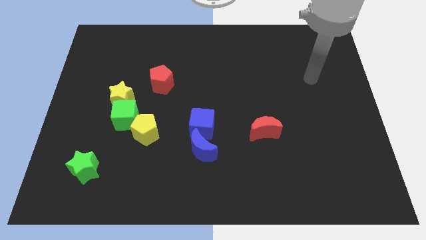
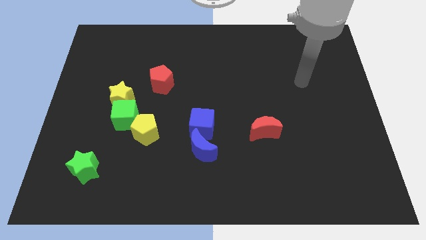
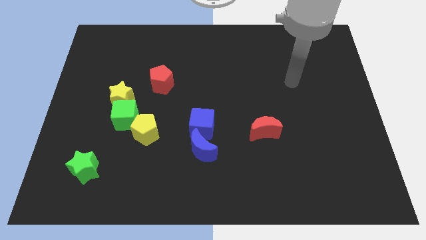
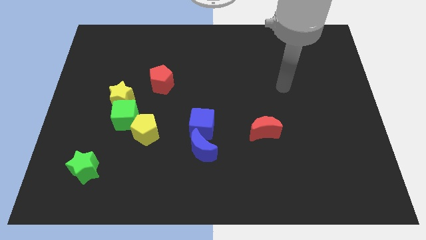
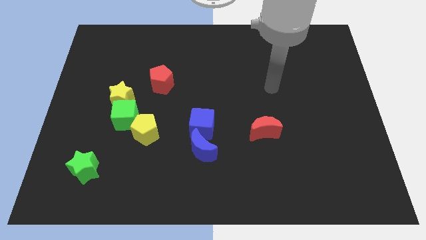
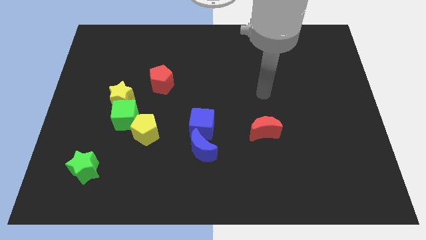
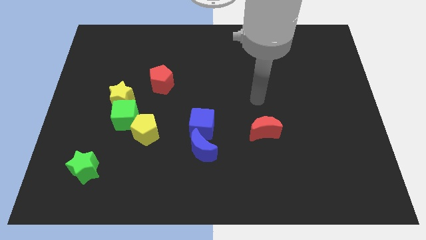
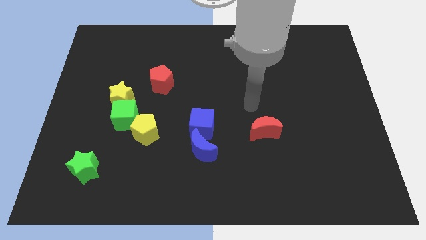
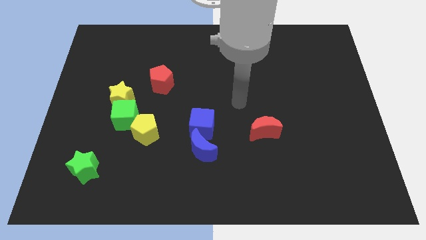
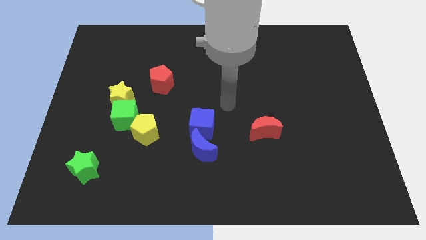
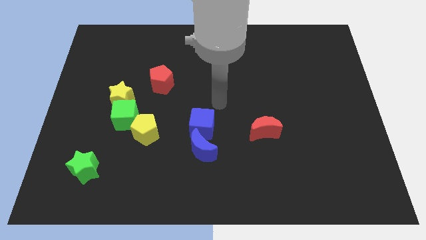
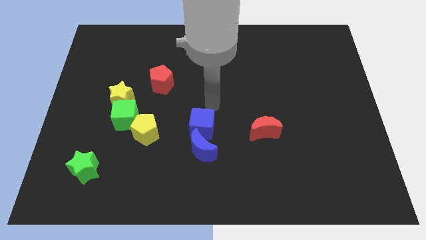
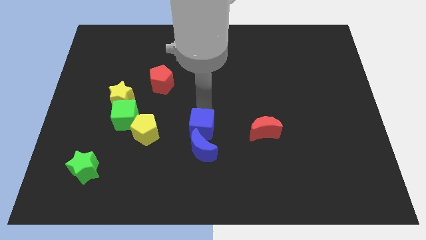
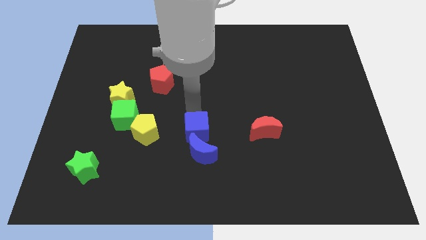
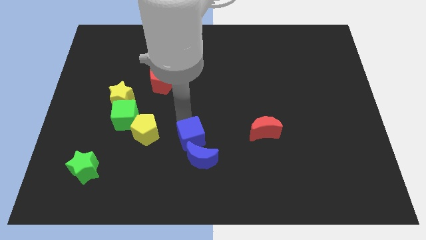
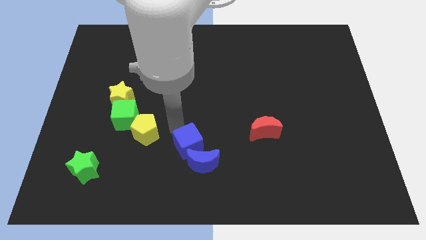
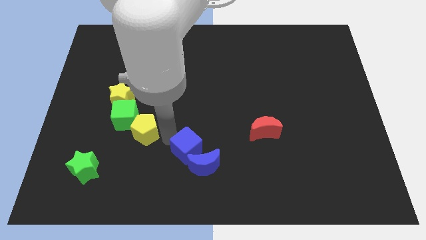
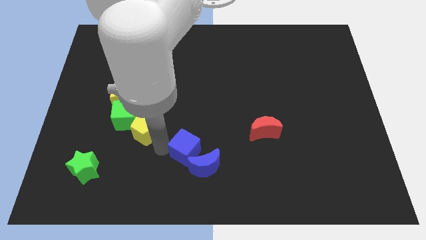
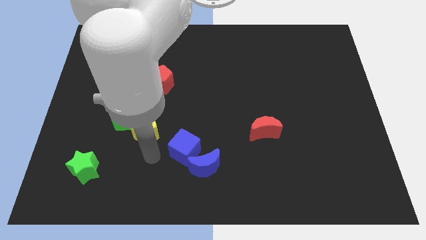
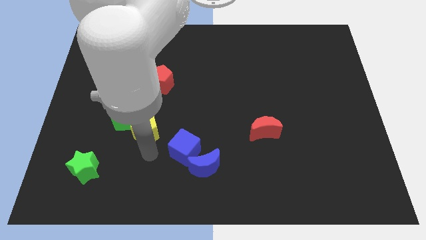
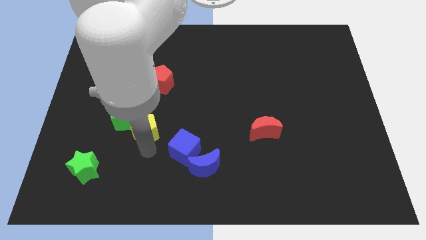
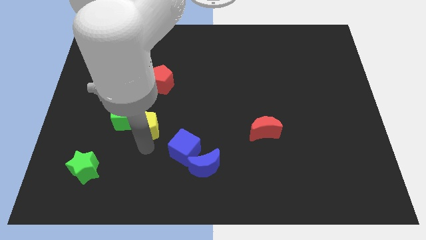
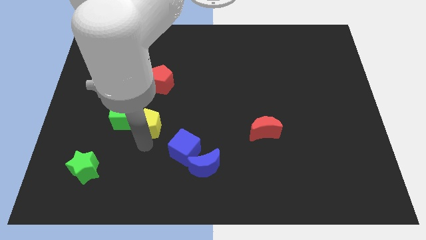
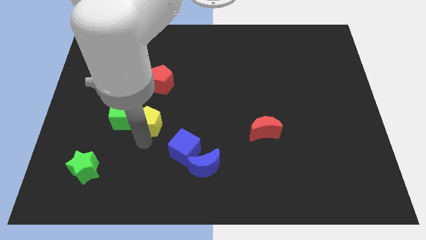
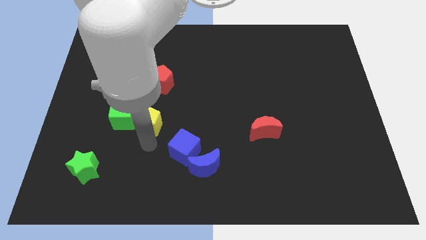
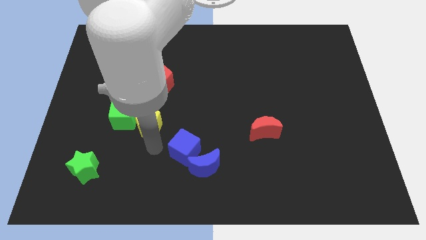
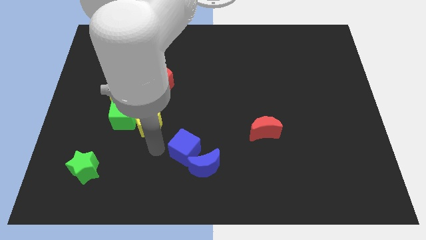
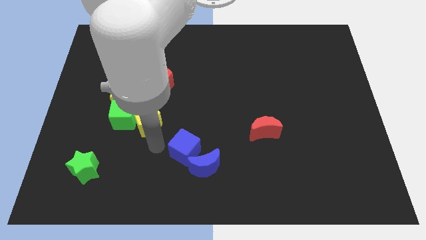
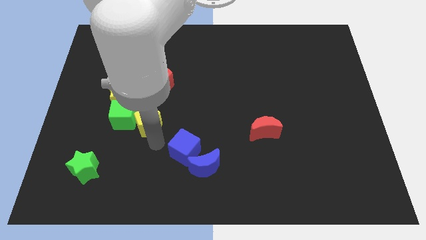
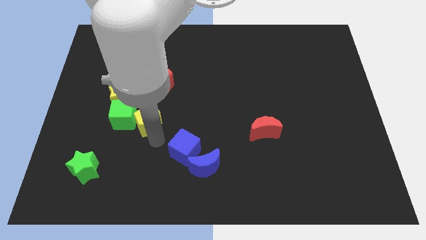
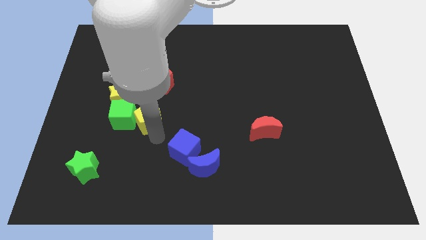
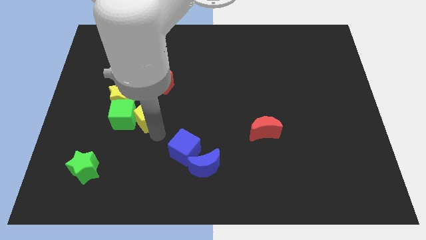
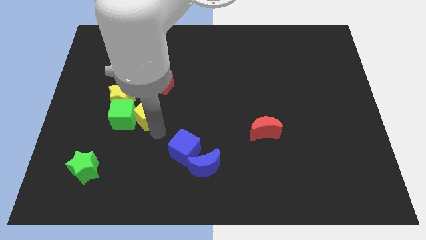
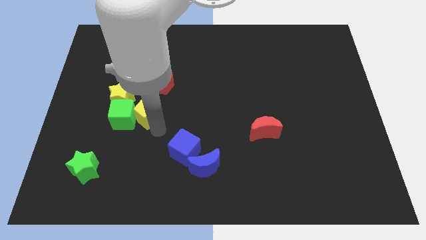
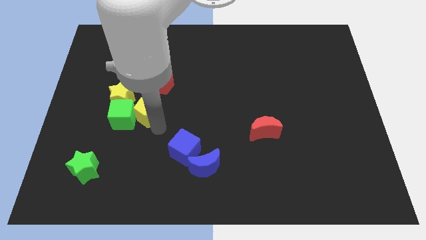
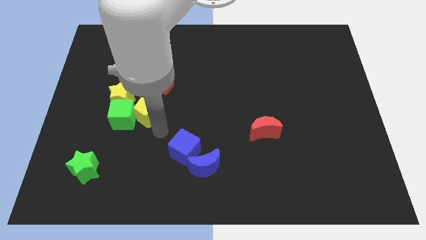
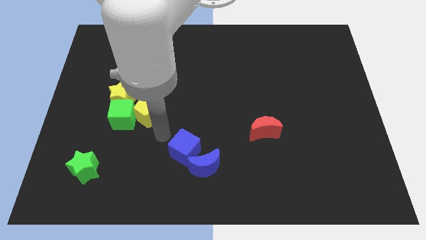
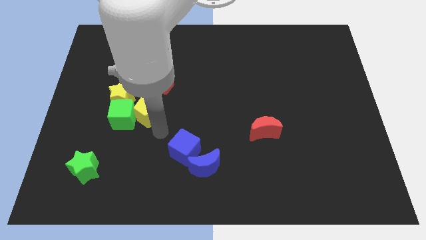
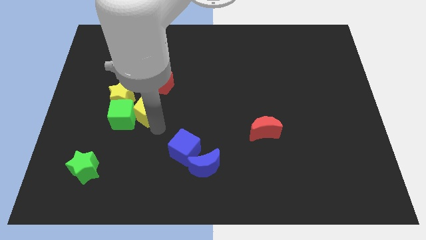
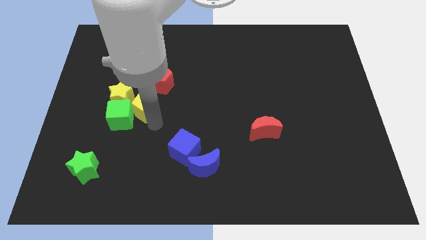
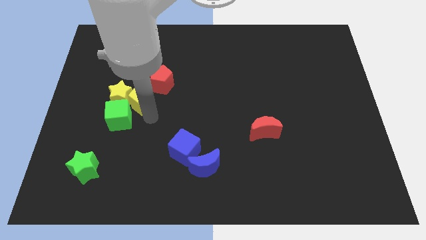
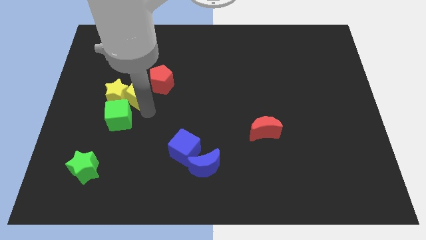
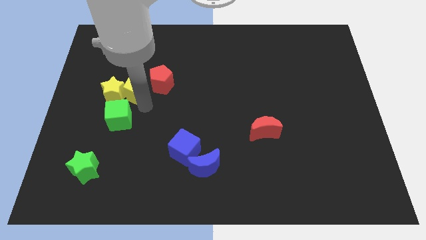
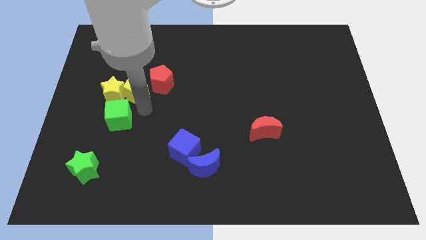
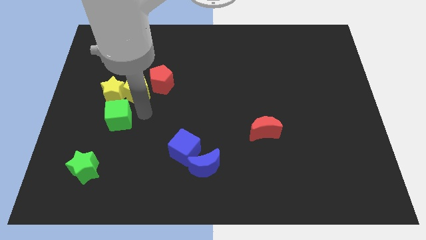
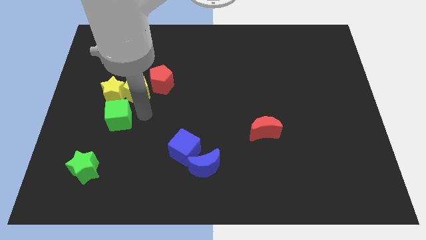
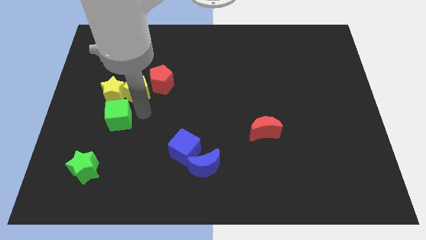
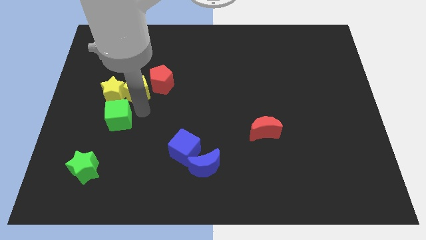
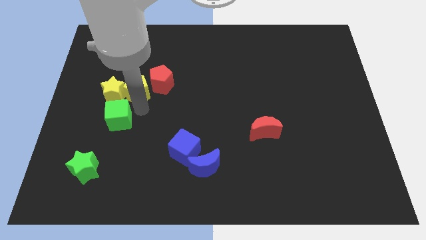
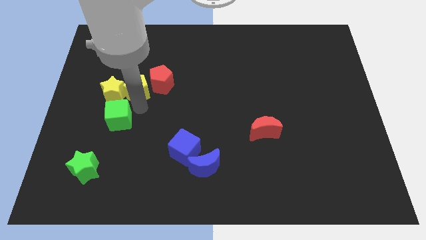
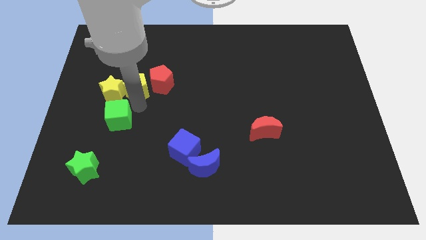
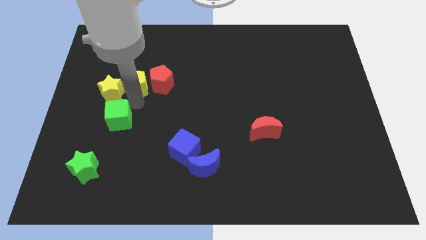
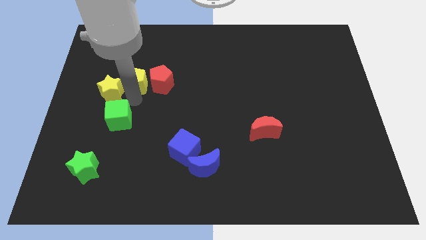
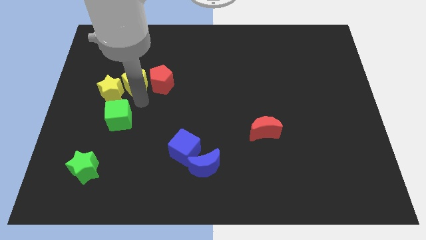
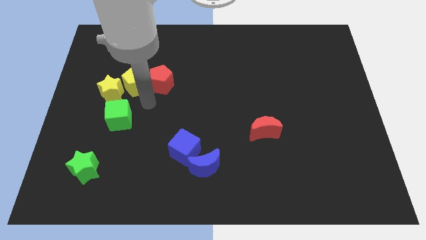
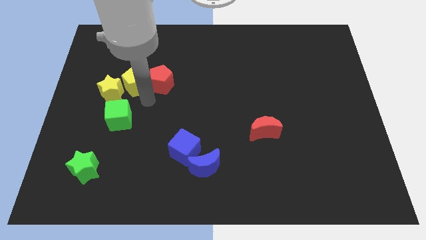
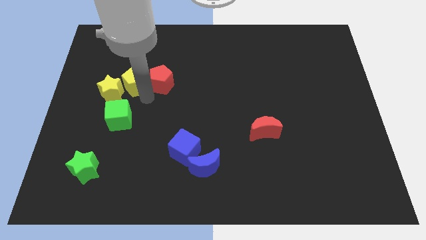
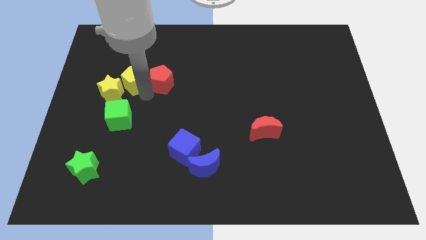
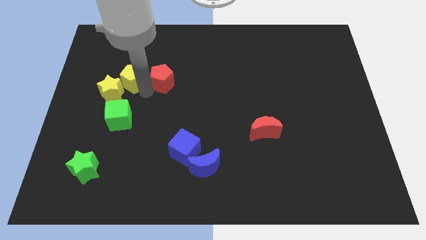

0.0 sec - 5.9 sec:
push the yellow pentagon to the top side of the yellow star

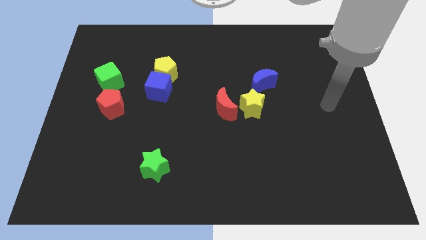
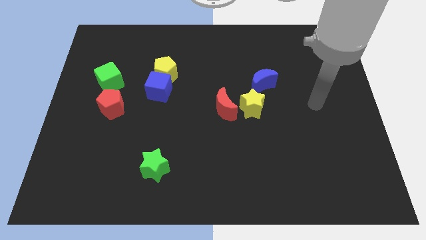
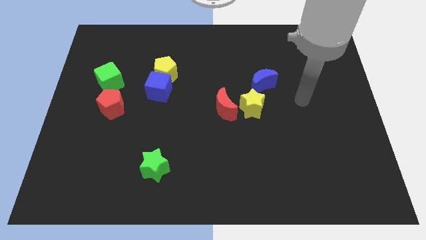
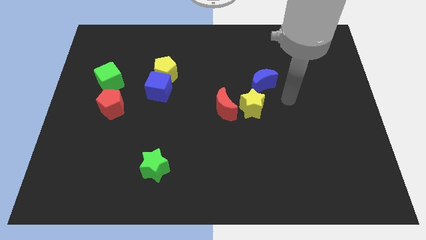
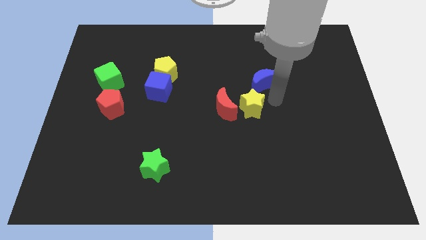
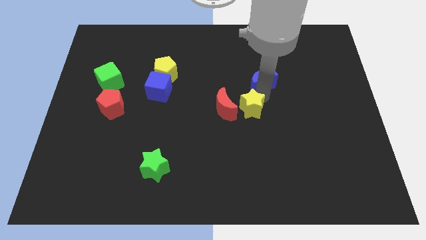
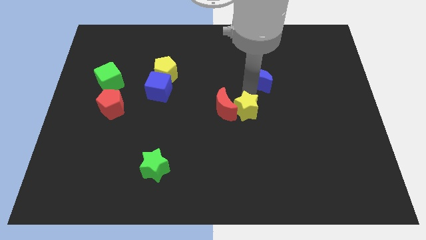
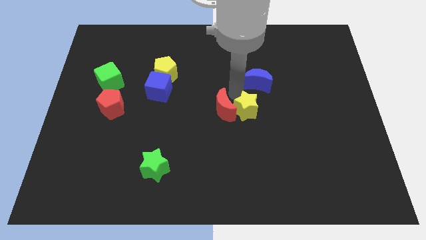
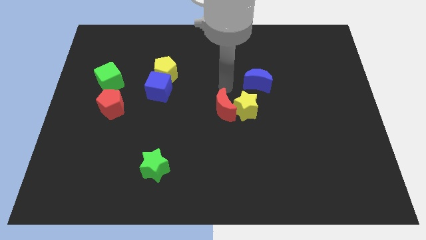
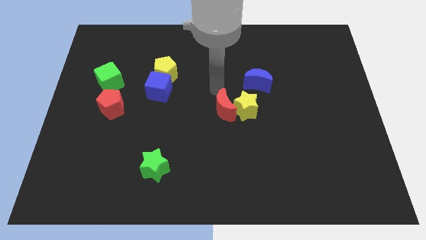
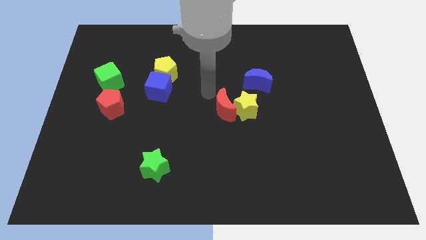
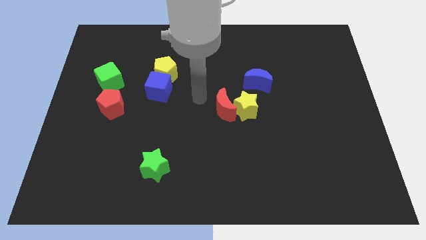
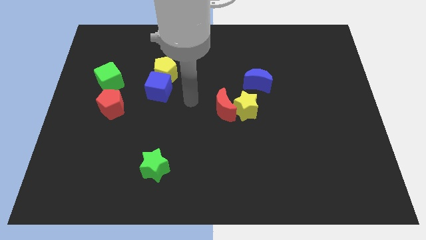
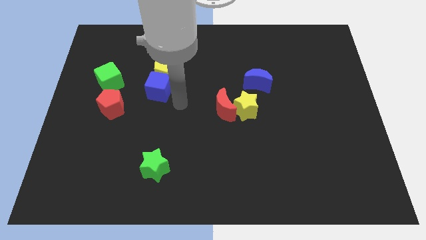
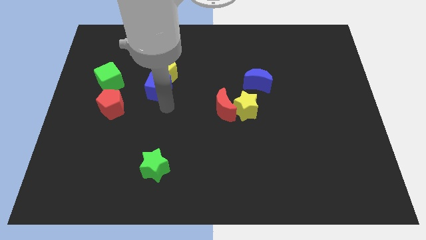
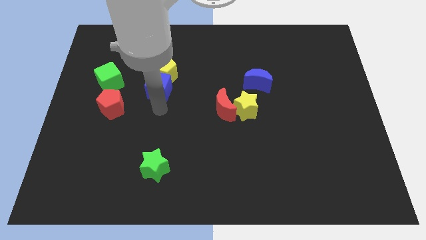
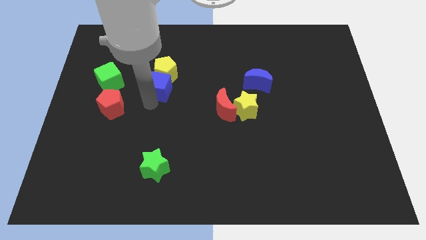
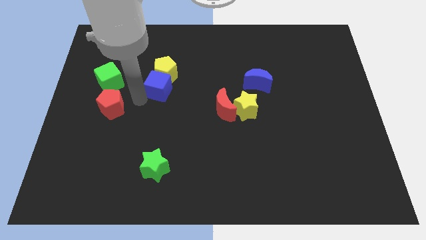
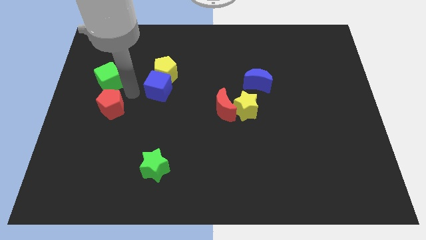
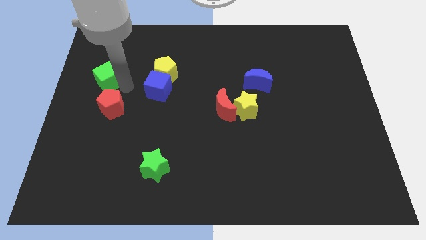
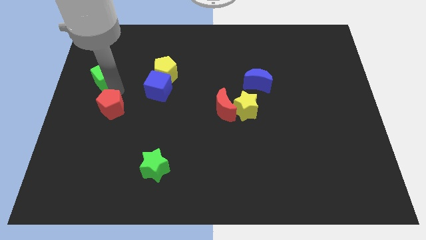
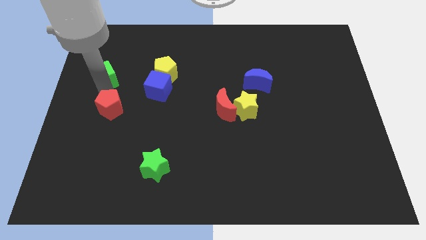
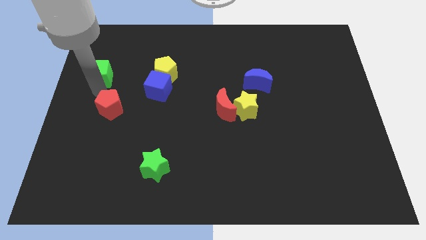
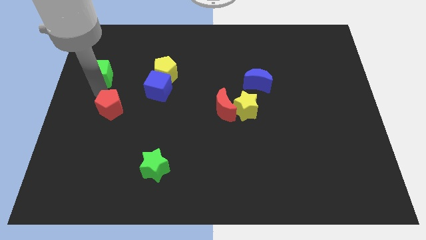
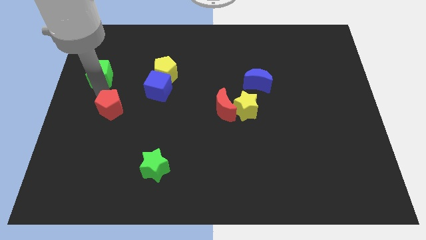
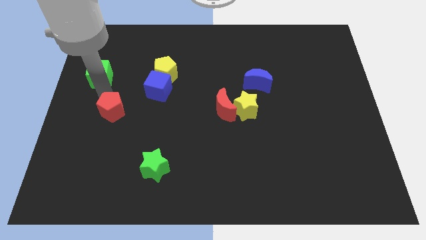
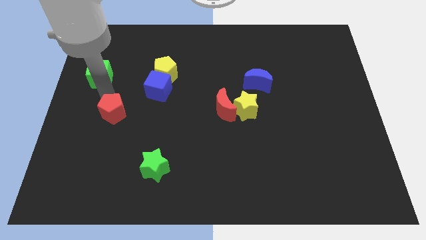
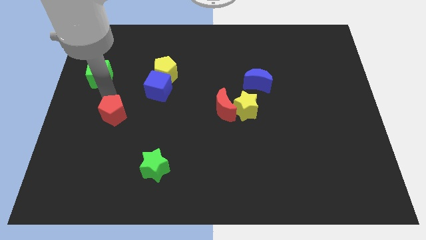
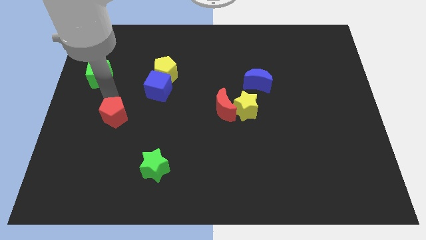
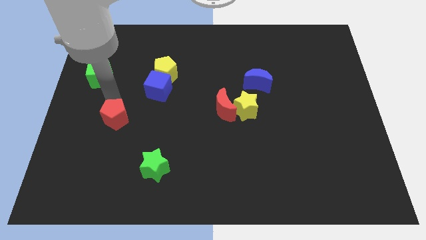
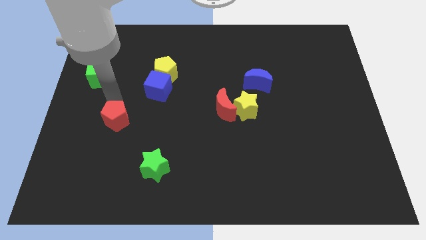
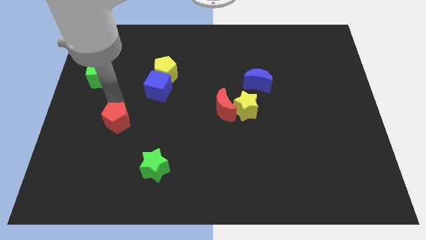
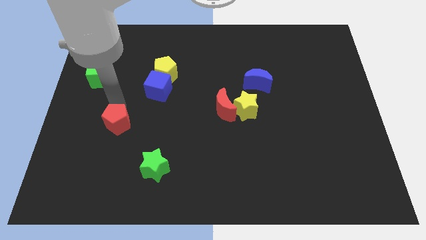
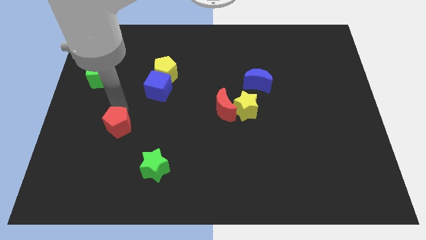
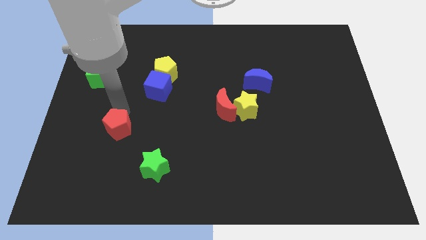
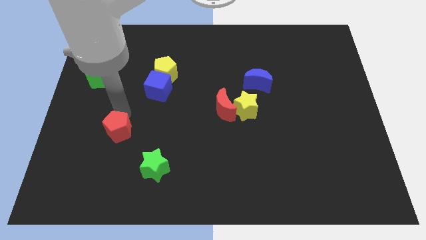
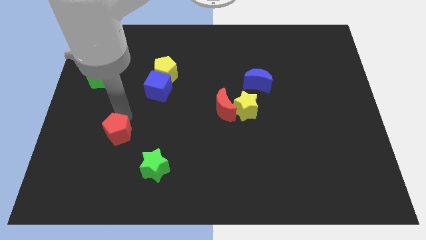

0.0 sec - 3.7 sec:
push the red pentagon diagonally up and to the left of the green star
